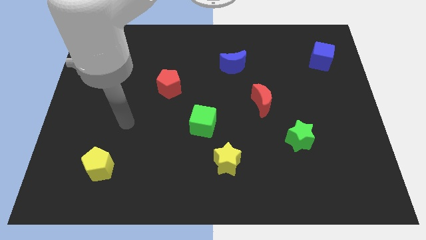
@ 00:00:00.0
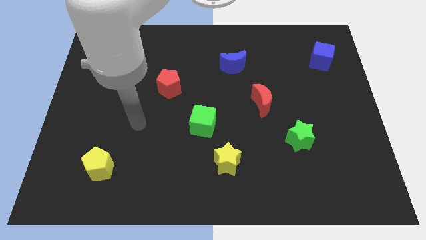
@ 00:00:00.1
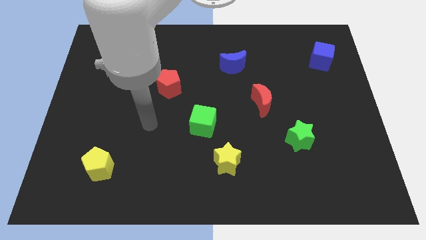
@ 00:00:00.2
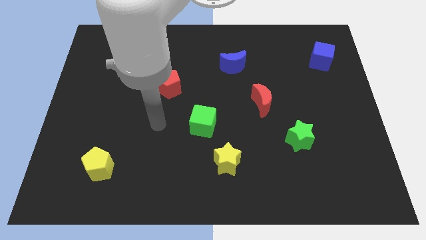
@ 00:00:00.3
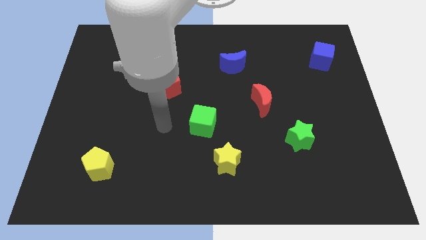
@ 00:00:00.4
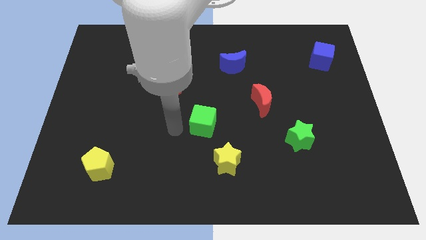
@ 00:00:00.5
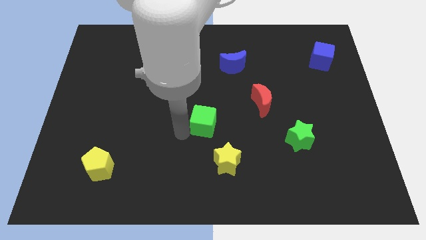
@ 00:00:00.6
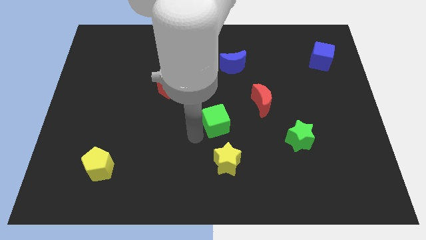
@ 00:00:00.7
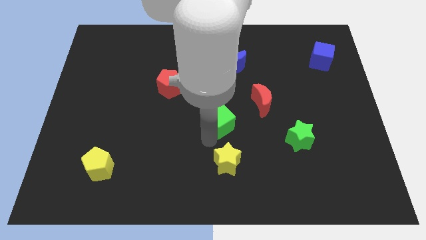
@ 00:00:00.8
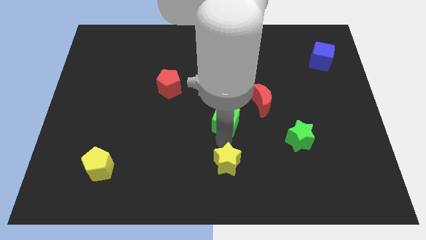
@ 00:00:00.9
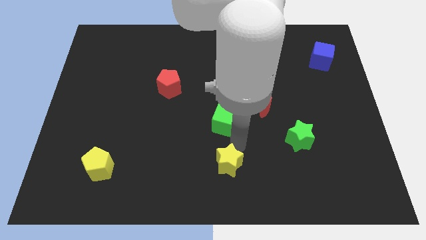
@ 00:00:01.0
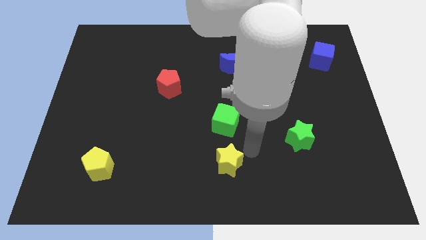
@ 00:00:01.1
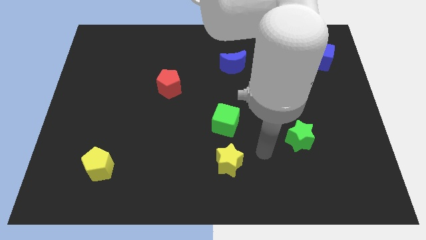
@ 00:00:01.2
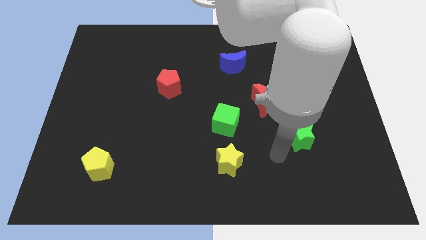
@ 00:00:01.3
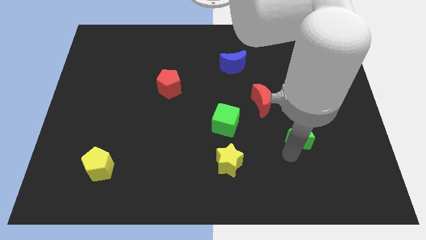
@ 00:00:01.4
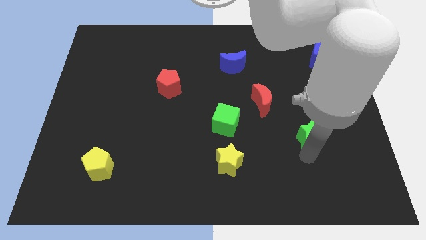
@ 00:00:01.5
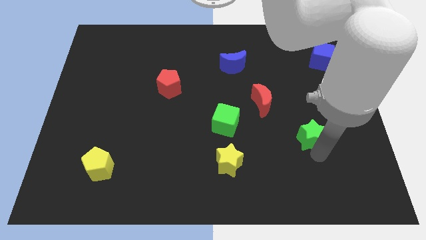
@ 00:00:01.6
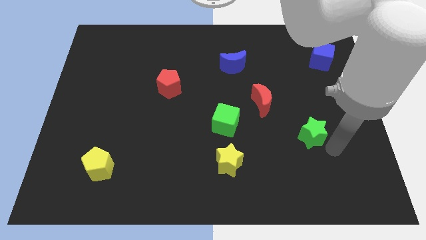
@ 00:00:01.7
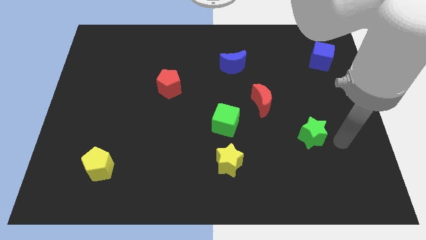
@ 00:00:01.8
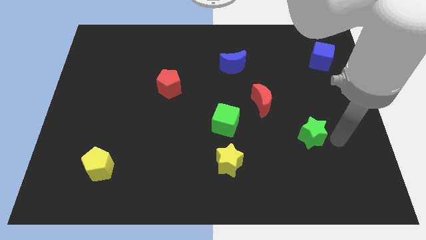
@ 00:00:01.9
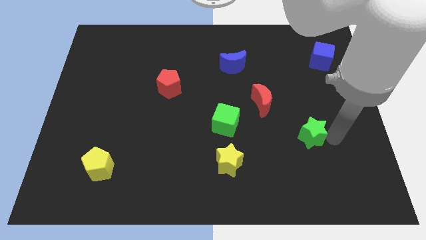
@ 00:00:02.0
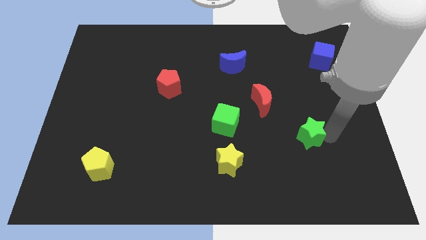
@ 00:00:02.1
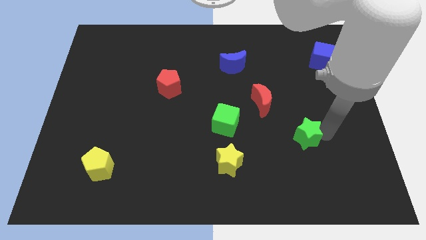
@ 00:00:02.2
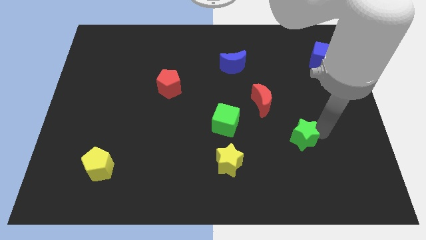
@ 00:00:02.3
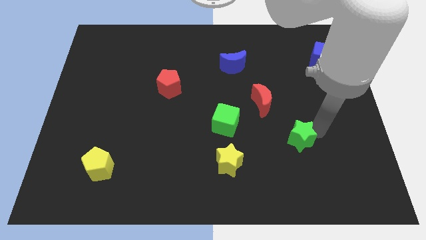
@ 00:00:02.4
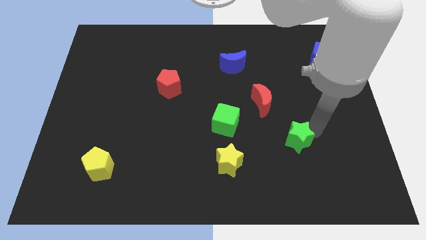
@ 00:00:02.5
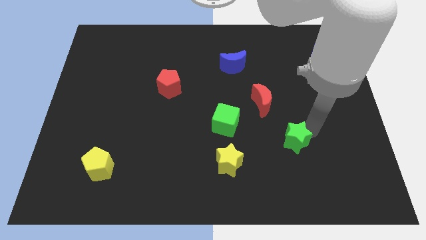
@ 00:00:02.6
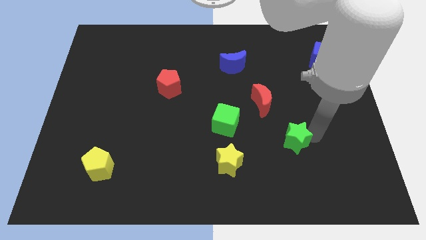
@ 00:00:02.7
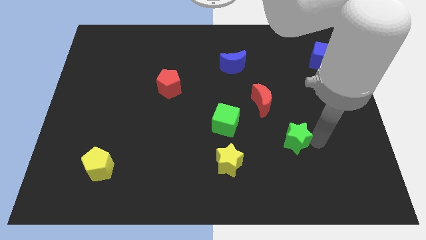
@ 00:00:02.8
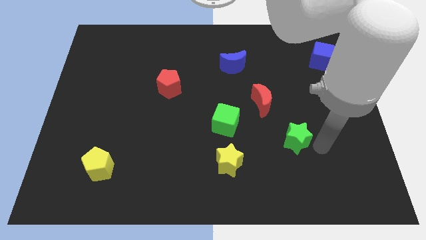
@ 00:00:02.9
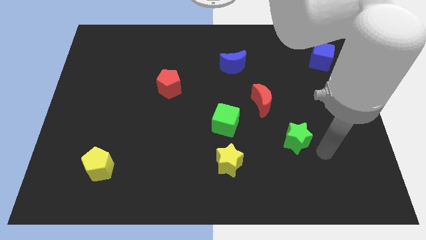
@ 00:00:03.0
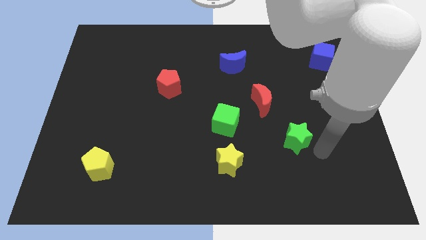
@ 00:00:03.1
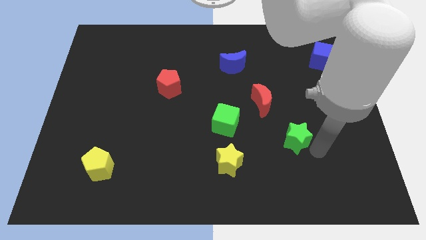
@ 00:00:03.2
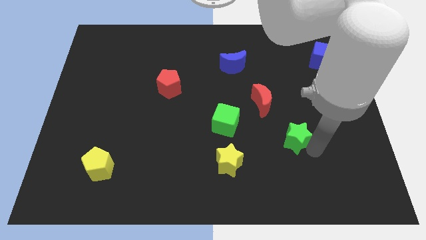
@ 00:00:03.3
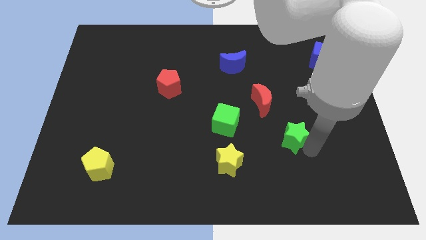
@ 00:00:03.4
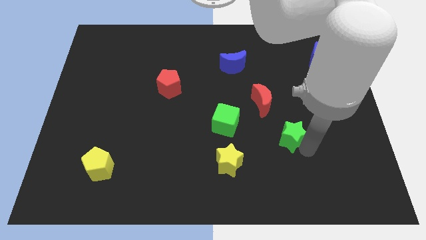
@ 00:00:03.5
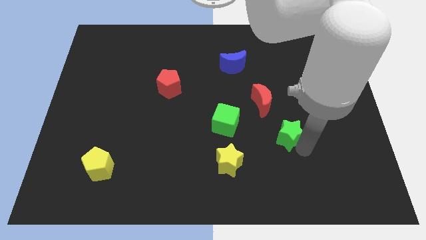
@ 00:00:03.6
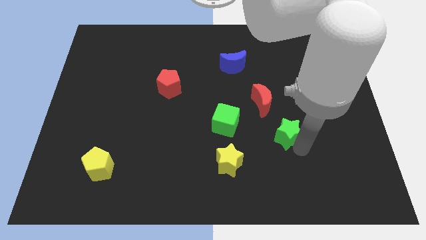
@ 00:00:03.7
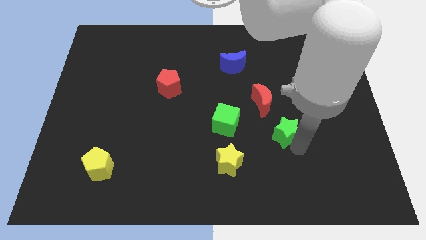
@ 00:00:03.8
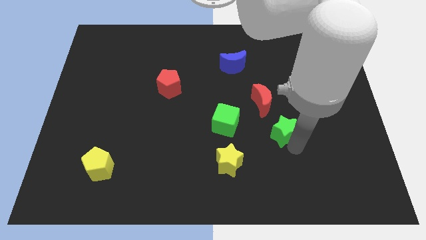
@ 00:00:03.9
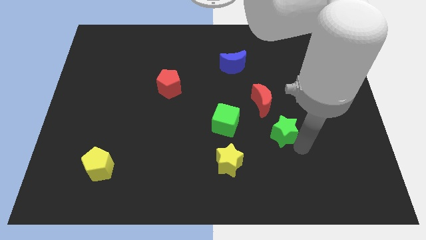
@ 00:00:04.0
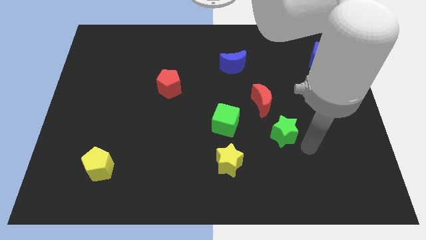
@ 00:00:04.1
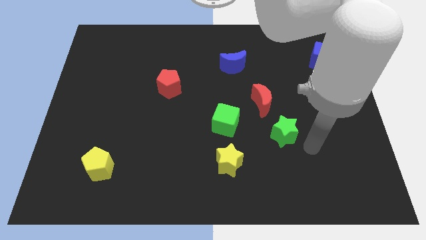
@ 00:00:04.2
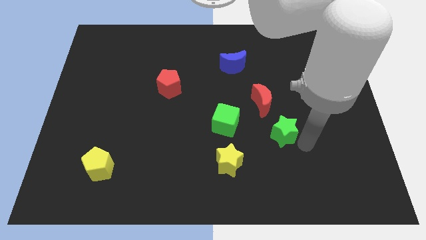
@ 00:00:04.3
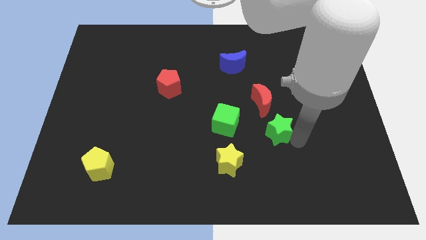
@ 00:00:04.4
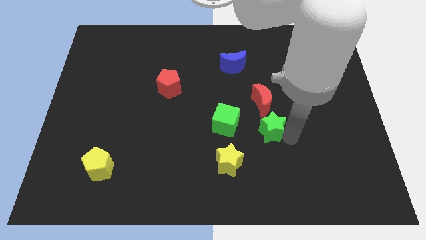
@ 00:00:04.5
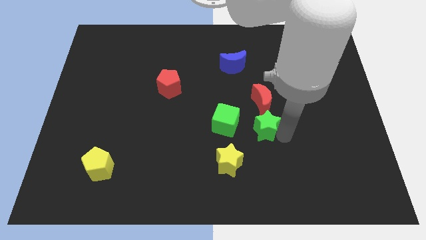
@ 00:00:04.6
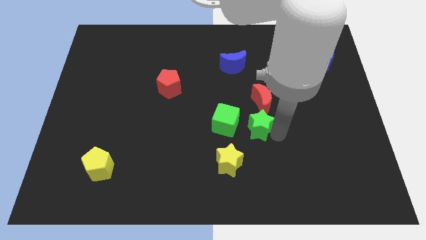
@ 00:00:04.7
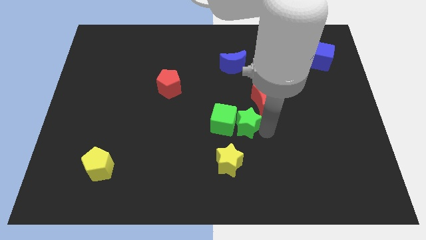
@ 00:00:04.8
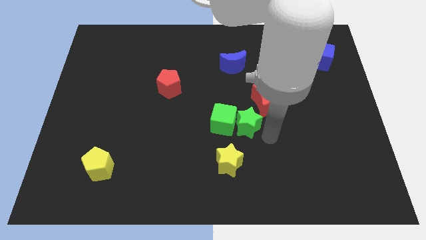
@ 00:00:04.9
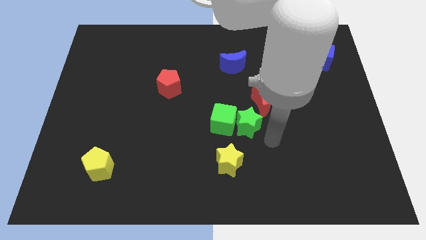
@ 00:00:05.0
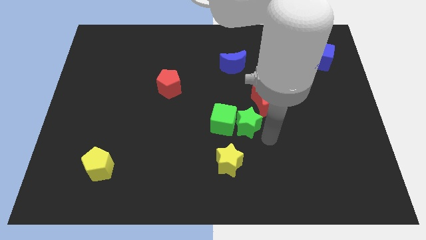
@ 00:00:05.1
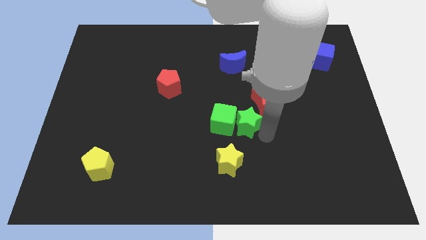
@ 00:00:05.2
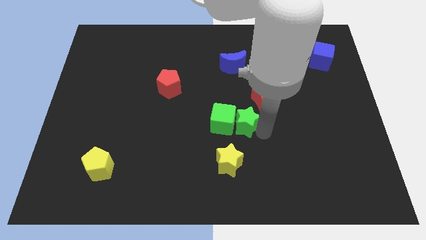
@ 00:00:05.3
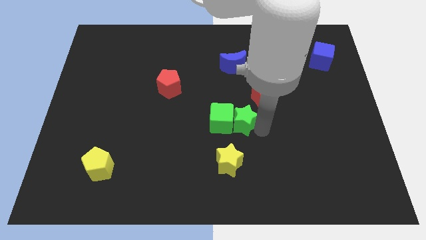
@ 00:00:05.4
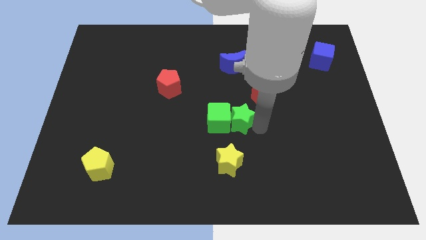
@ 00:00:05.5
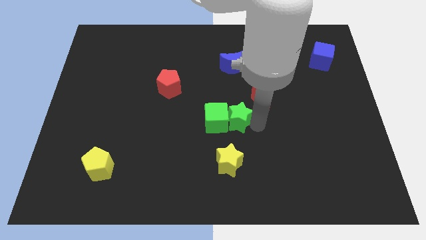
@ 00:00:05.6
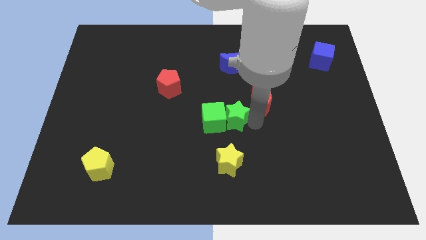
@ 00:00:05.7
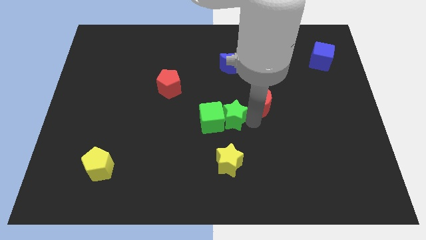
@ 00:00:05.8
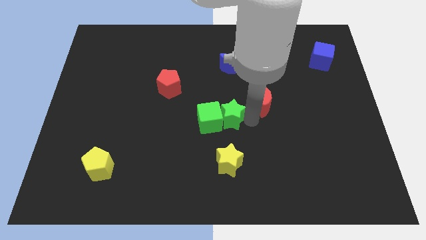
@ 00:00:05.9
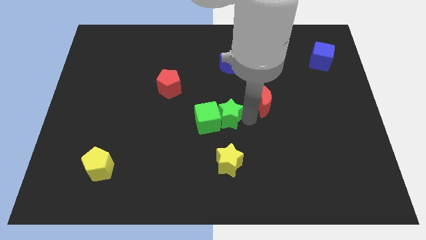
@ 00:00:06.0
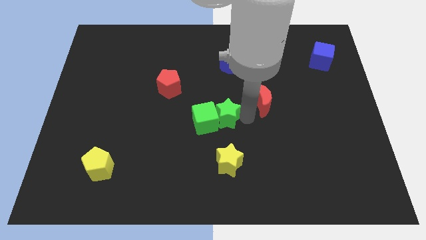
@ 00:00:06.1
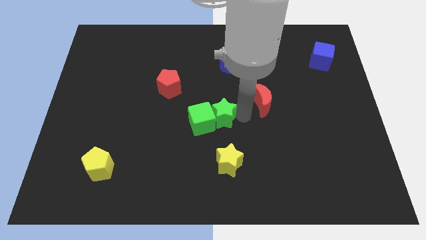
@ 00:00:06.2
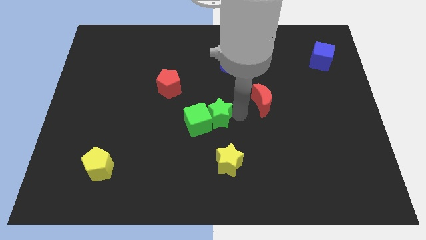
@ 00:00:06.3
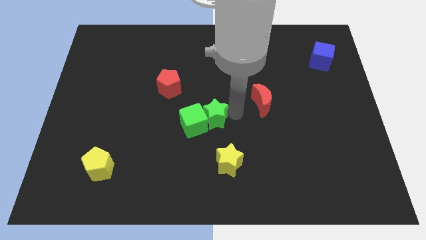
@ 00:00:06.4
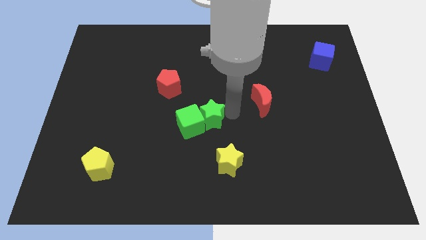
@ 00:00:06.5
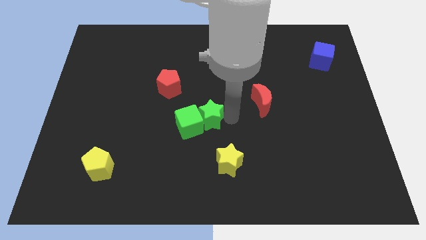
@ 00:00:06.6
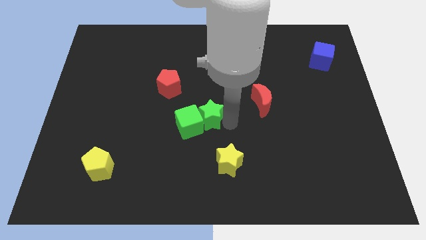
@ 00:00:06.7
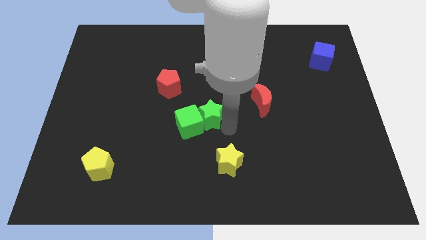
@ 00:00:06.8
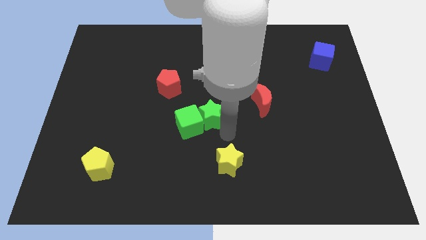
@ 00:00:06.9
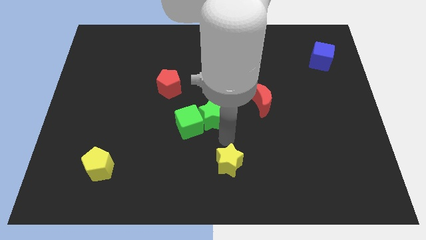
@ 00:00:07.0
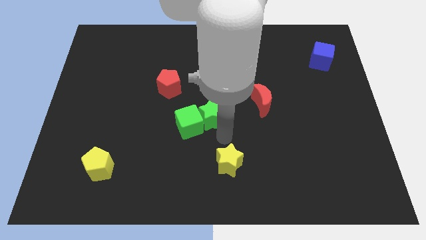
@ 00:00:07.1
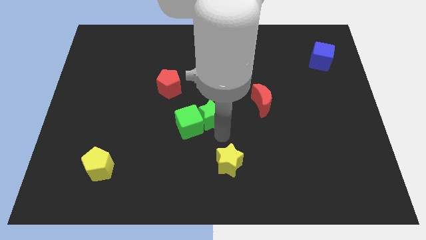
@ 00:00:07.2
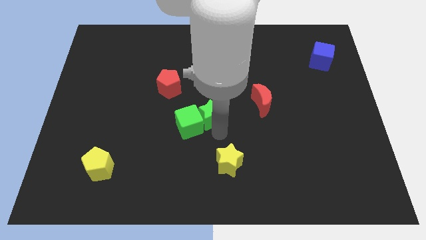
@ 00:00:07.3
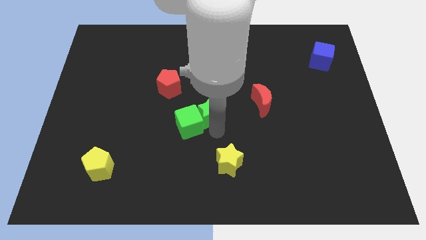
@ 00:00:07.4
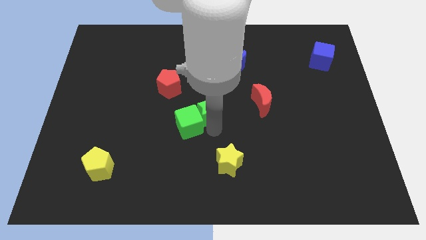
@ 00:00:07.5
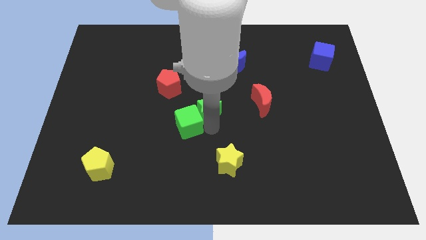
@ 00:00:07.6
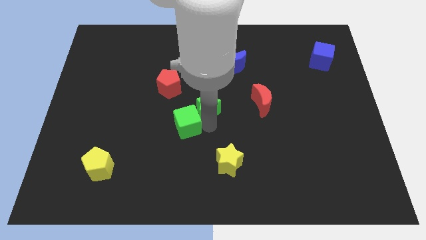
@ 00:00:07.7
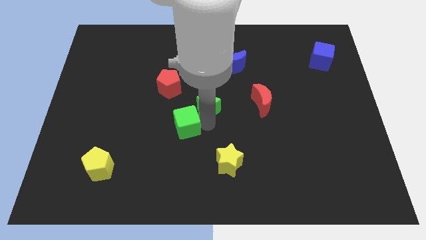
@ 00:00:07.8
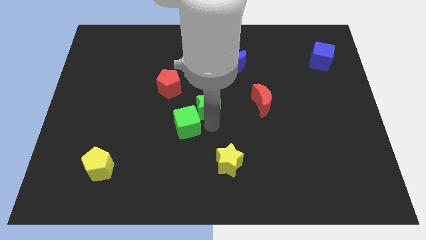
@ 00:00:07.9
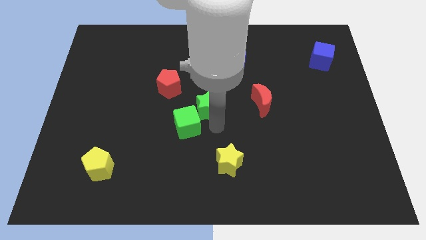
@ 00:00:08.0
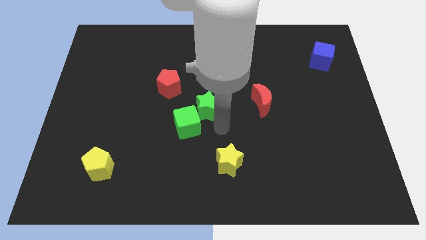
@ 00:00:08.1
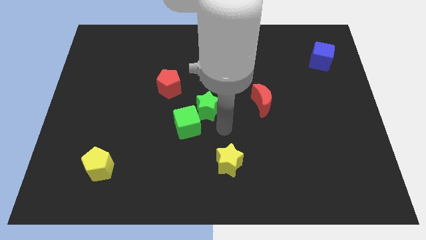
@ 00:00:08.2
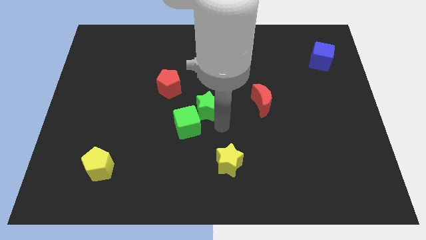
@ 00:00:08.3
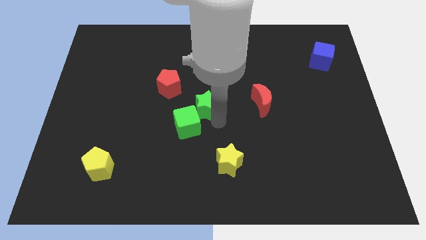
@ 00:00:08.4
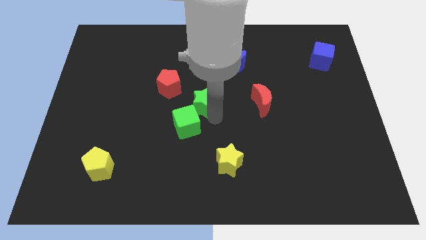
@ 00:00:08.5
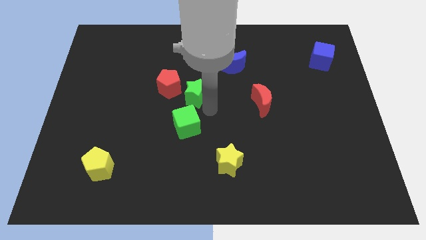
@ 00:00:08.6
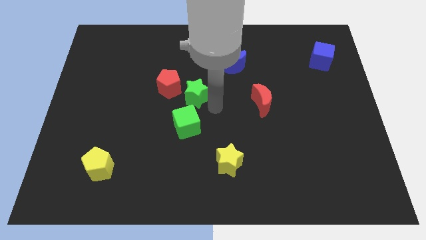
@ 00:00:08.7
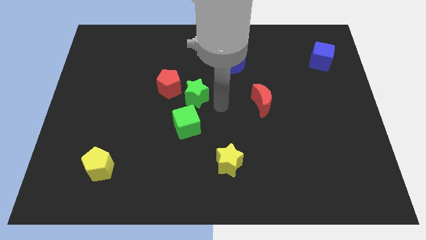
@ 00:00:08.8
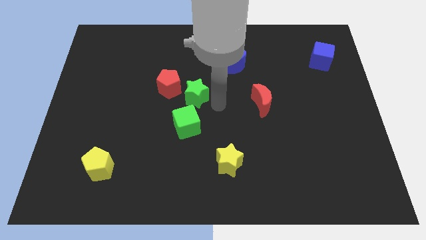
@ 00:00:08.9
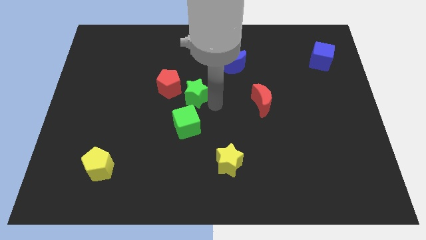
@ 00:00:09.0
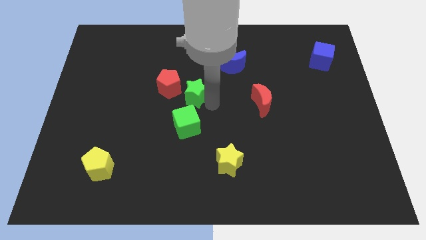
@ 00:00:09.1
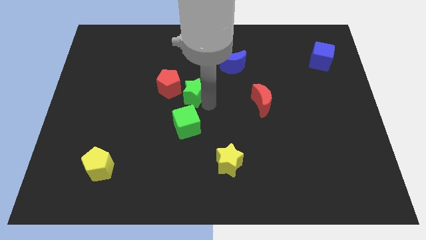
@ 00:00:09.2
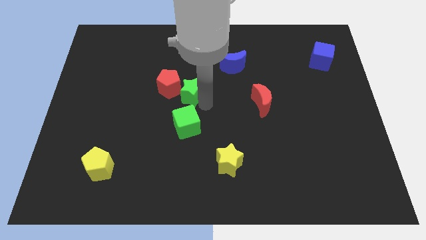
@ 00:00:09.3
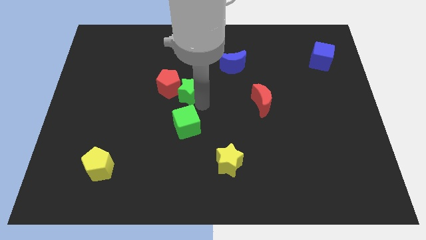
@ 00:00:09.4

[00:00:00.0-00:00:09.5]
move the green star next to the red pentagon
